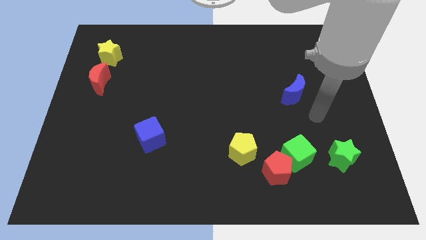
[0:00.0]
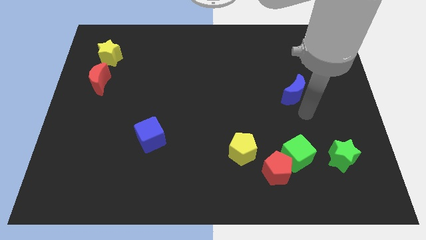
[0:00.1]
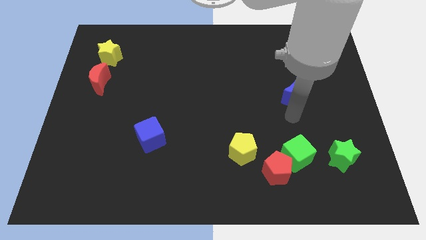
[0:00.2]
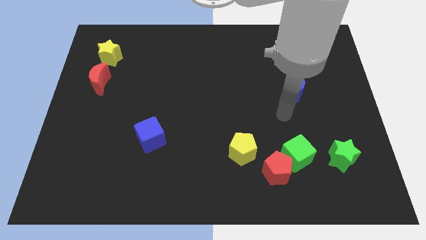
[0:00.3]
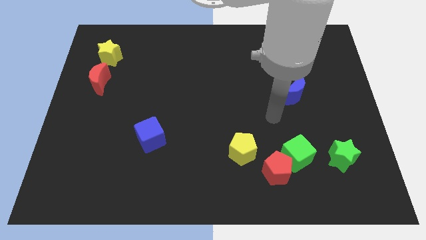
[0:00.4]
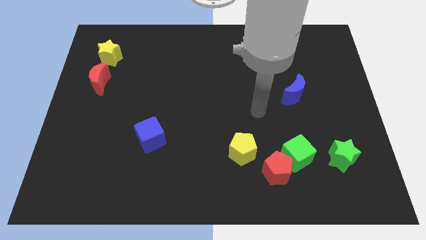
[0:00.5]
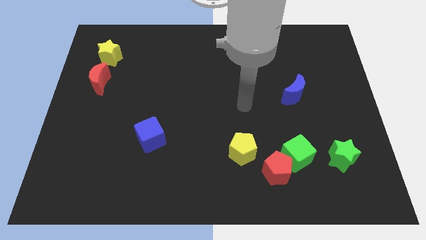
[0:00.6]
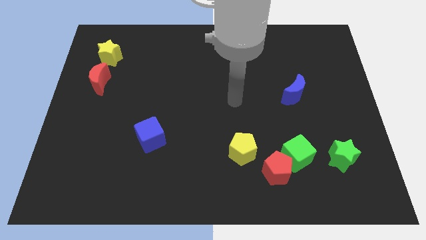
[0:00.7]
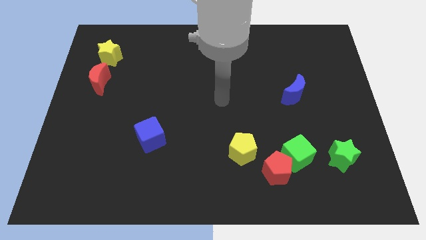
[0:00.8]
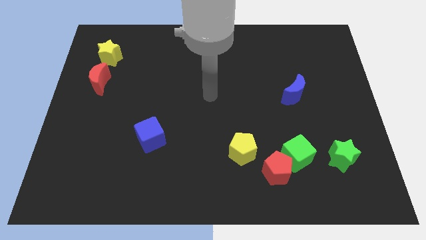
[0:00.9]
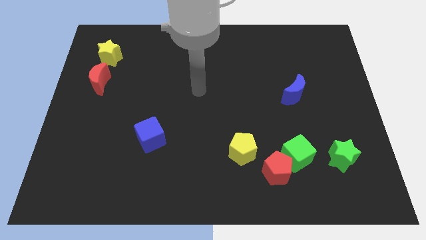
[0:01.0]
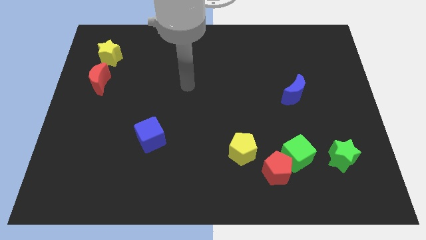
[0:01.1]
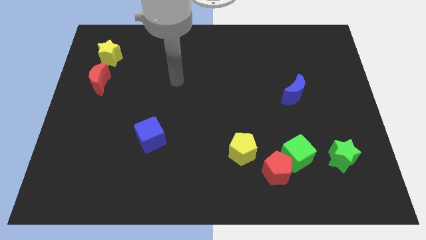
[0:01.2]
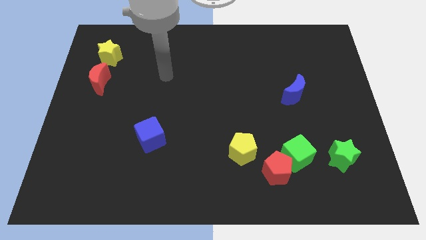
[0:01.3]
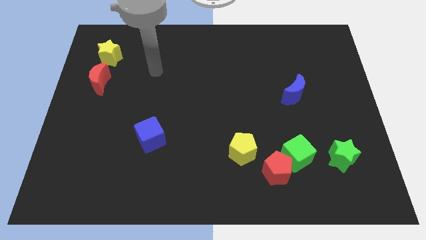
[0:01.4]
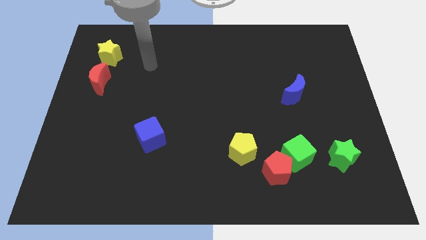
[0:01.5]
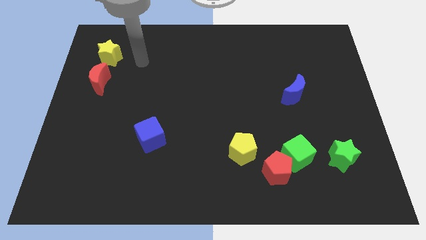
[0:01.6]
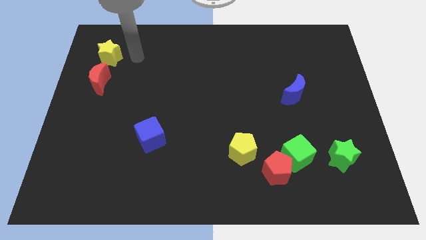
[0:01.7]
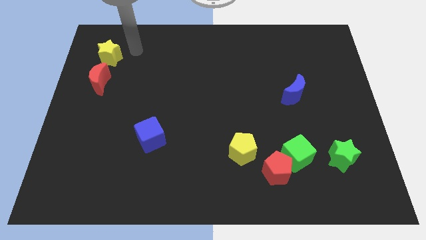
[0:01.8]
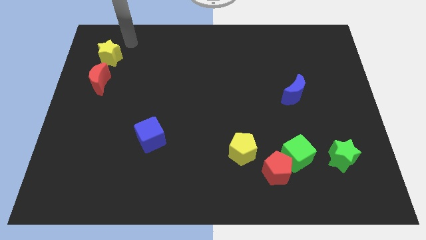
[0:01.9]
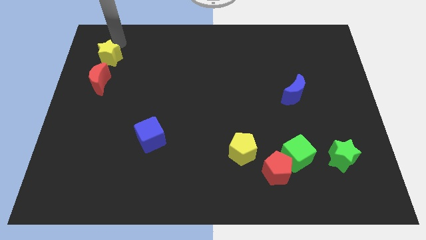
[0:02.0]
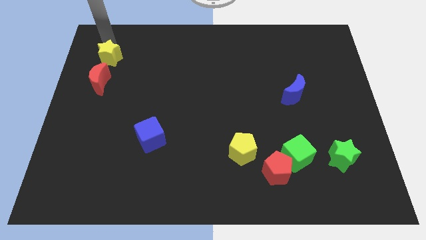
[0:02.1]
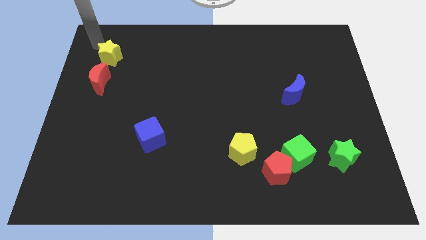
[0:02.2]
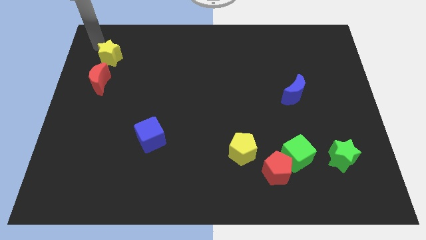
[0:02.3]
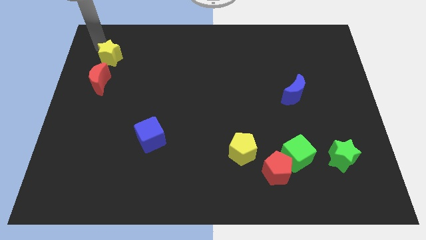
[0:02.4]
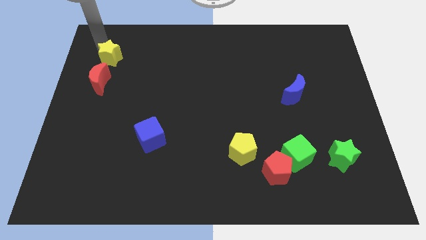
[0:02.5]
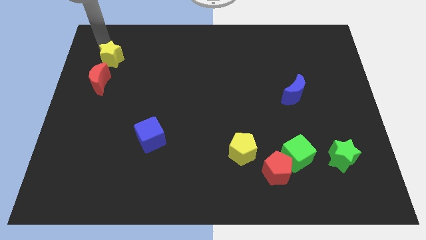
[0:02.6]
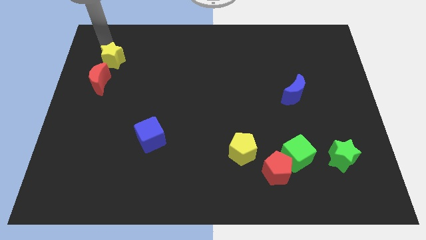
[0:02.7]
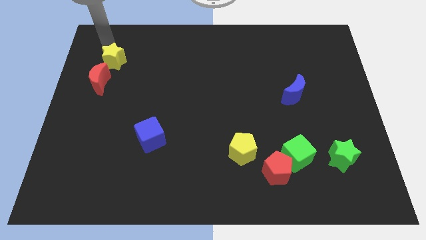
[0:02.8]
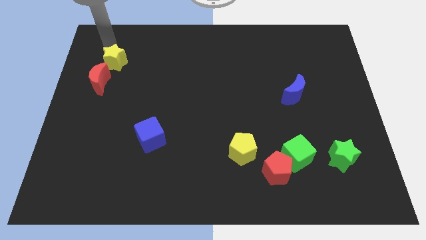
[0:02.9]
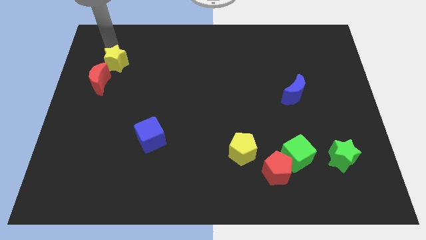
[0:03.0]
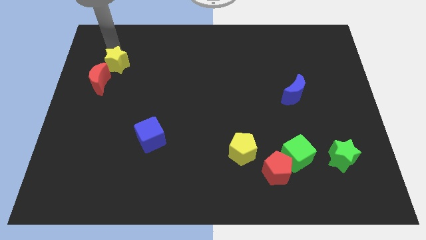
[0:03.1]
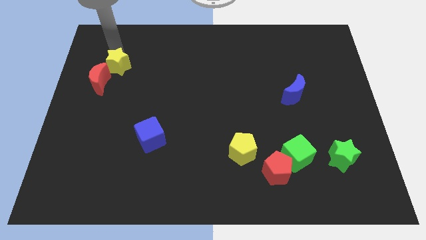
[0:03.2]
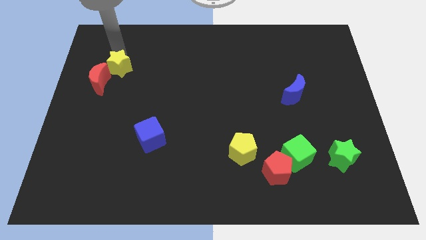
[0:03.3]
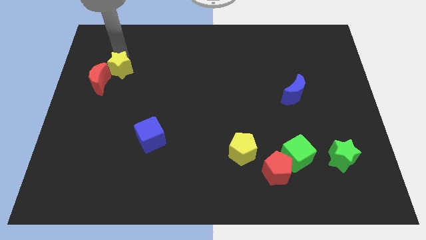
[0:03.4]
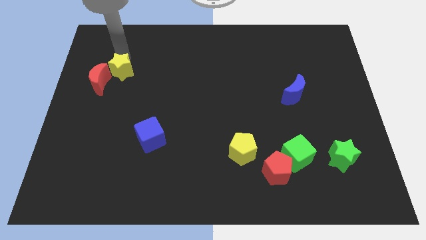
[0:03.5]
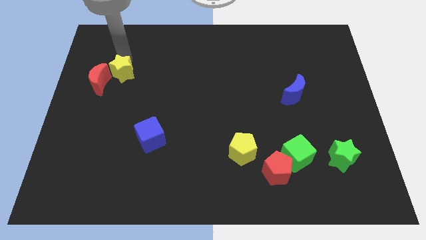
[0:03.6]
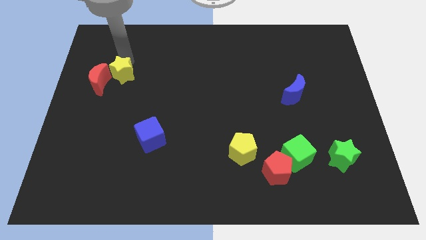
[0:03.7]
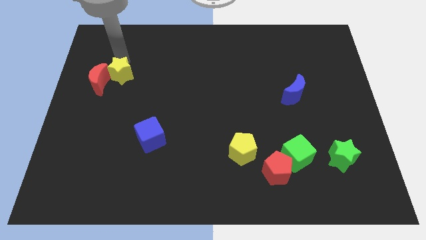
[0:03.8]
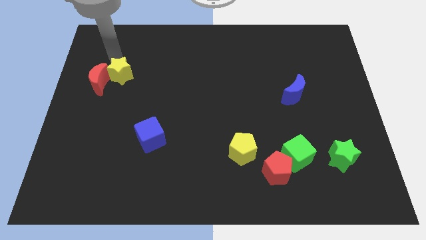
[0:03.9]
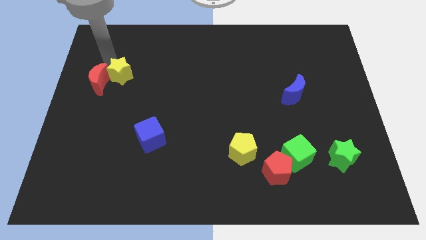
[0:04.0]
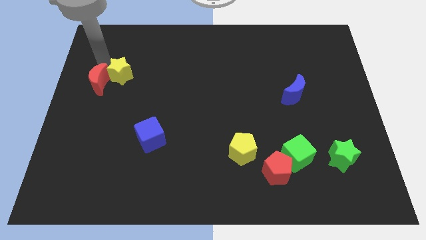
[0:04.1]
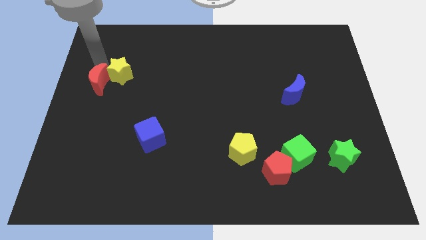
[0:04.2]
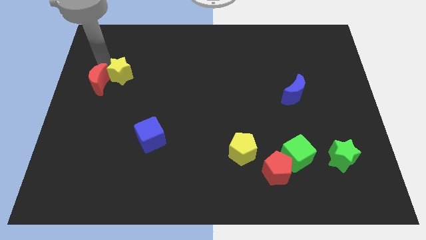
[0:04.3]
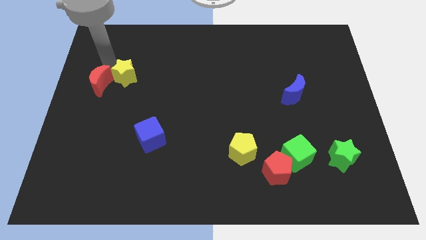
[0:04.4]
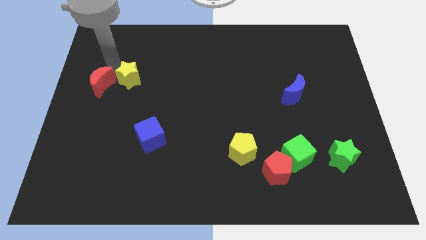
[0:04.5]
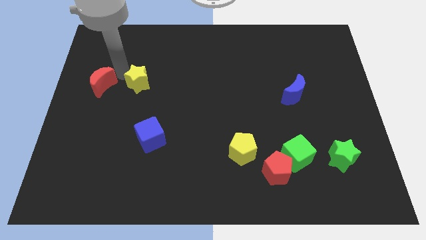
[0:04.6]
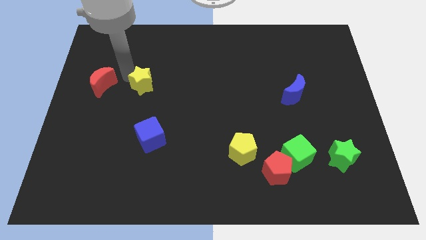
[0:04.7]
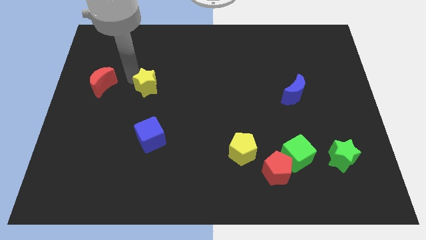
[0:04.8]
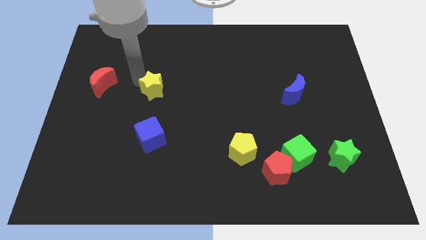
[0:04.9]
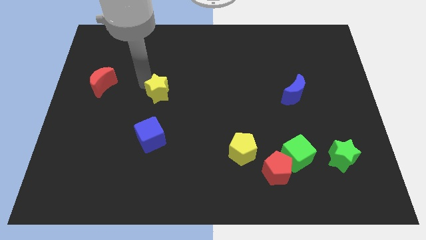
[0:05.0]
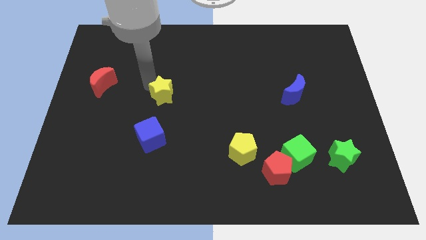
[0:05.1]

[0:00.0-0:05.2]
slide the yellow star diagonally downwards and right

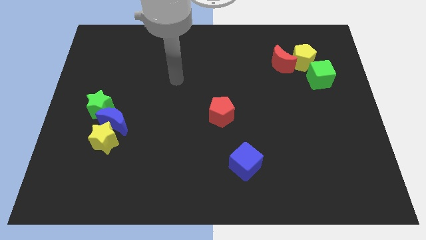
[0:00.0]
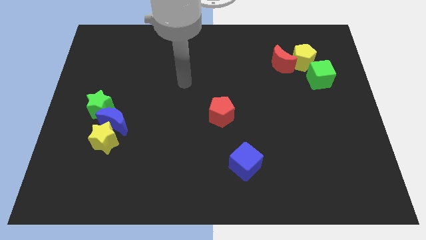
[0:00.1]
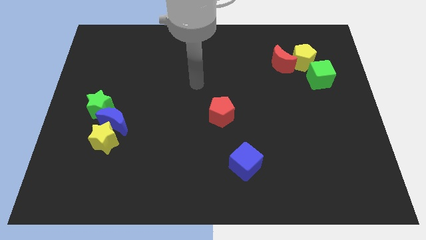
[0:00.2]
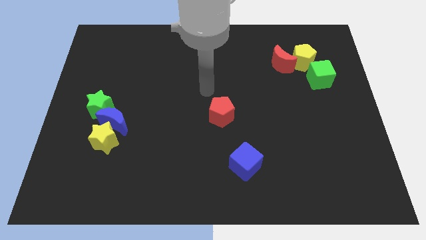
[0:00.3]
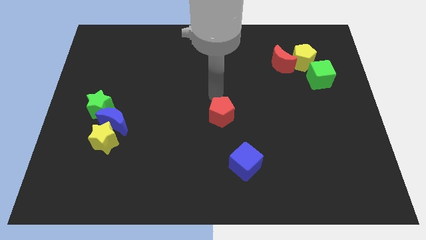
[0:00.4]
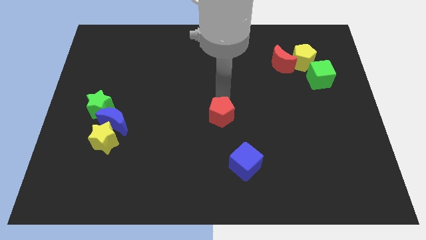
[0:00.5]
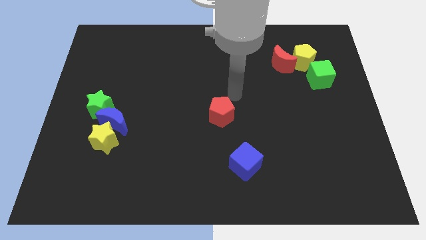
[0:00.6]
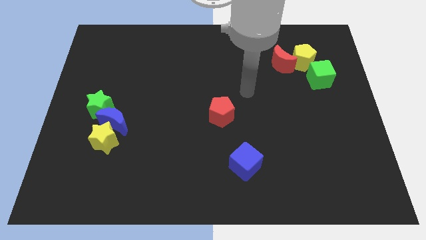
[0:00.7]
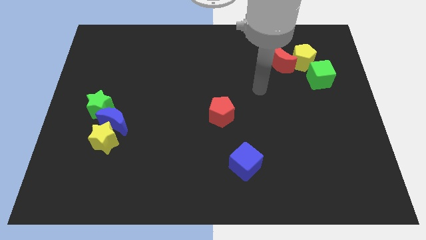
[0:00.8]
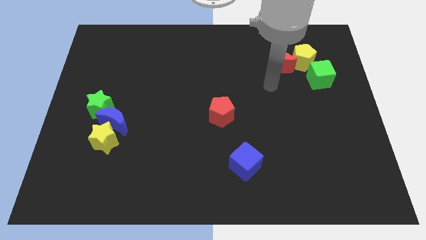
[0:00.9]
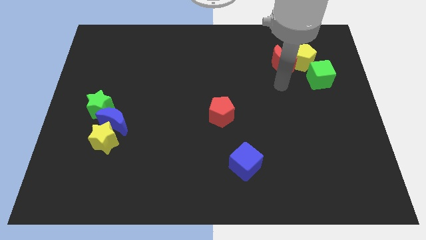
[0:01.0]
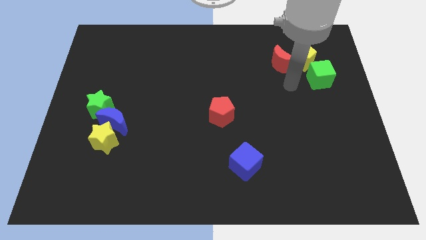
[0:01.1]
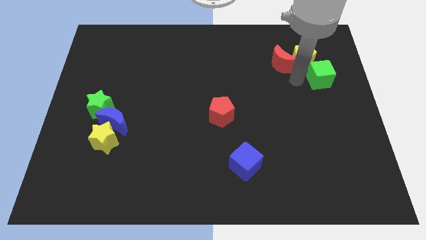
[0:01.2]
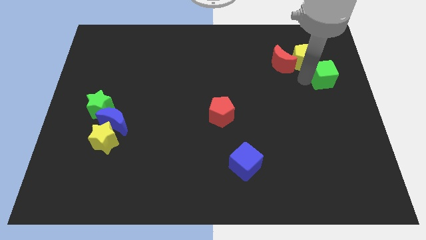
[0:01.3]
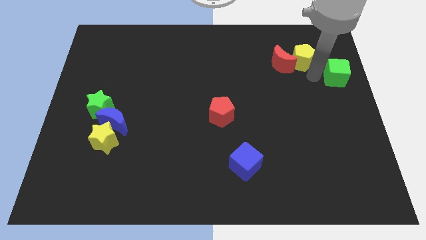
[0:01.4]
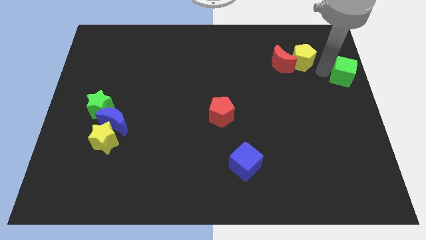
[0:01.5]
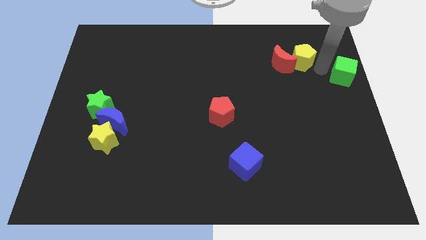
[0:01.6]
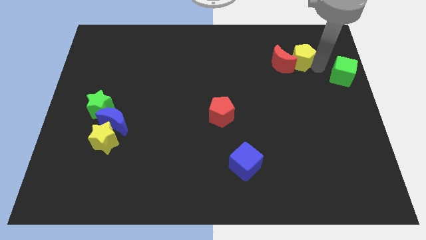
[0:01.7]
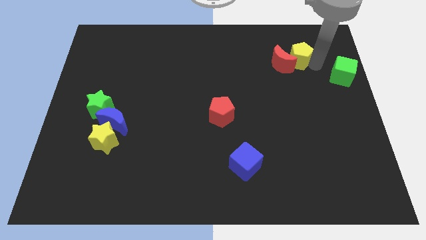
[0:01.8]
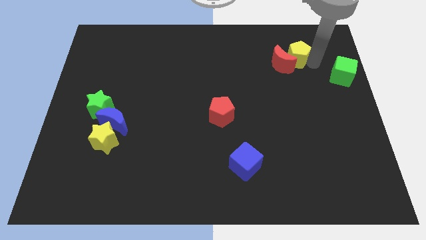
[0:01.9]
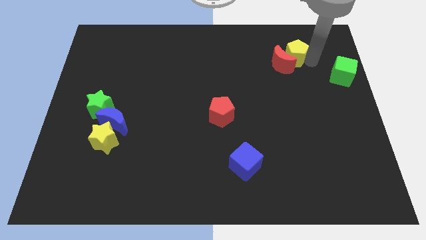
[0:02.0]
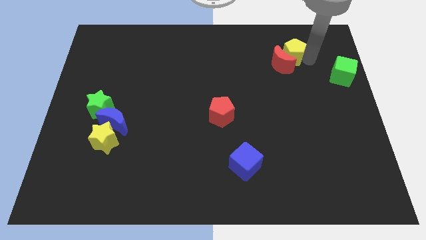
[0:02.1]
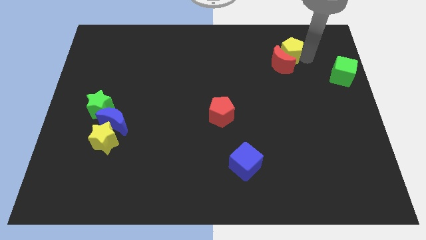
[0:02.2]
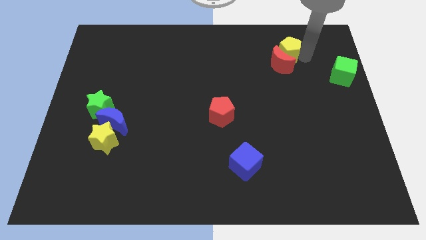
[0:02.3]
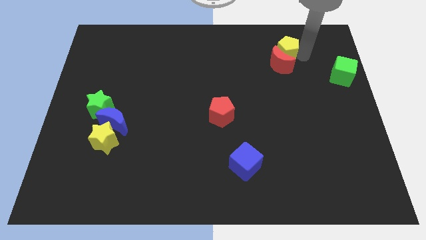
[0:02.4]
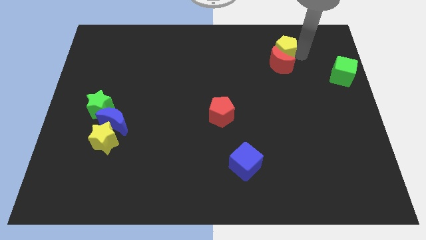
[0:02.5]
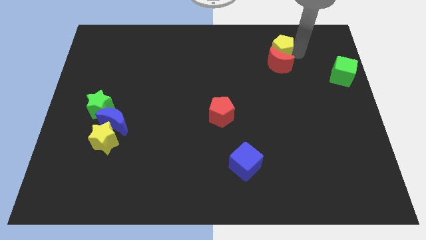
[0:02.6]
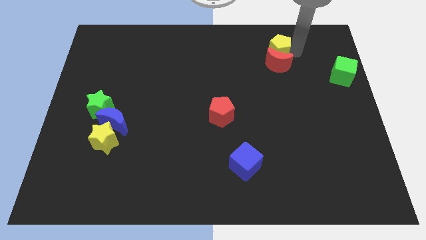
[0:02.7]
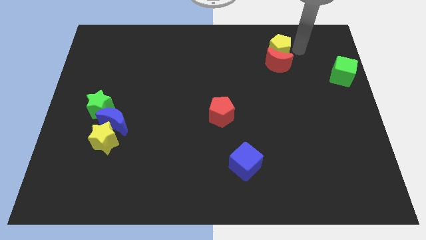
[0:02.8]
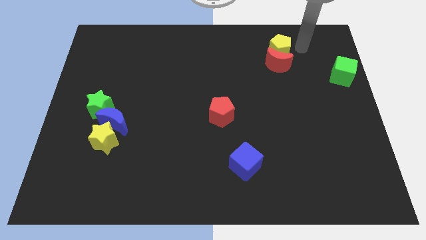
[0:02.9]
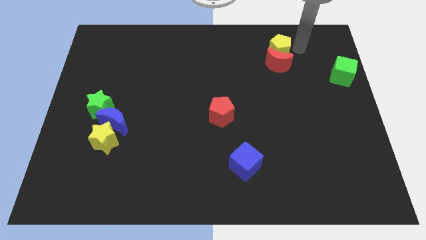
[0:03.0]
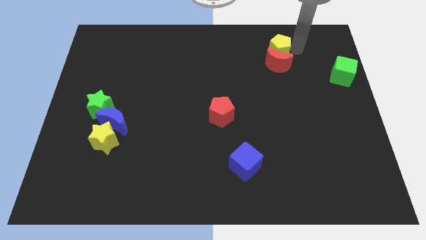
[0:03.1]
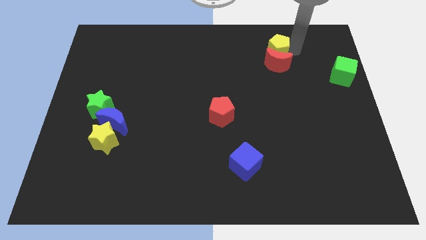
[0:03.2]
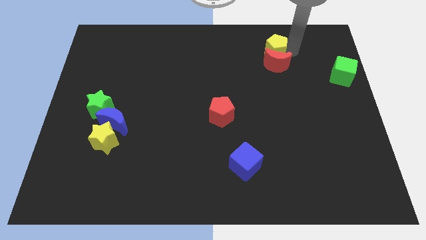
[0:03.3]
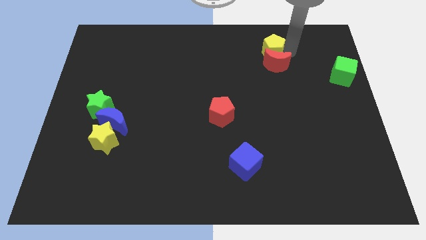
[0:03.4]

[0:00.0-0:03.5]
move the yellow pentagon to the left a little bit
